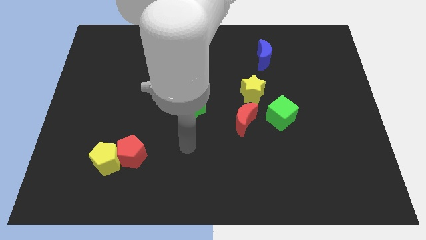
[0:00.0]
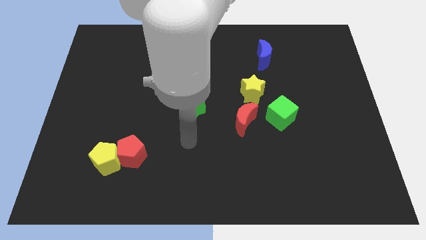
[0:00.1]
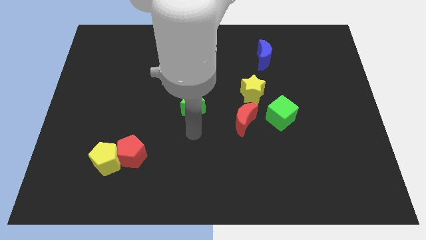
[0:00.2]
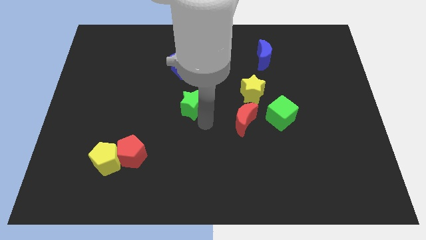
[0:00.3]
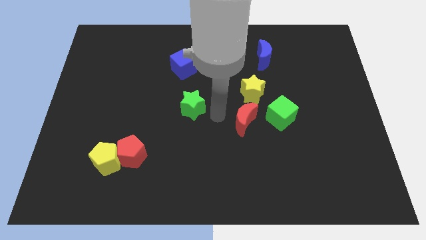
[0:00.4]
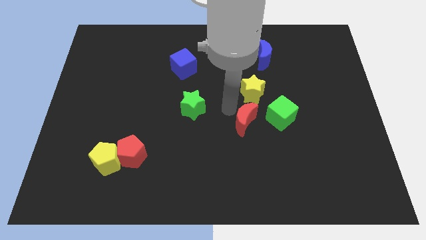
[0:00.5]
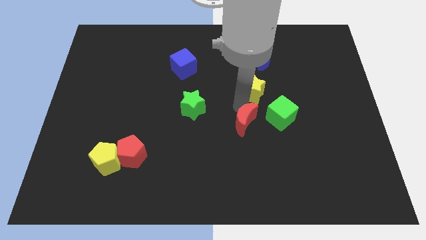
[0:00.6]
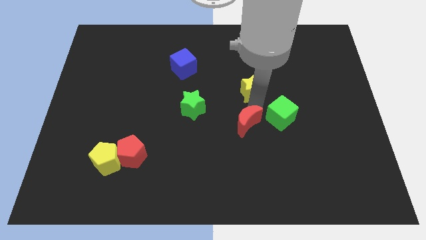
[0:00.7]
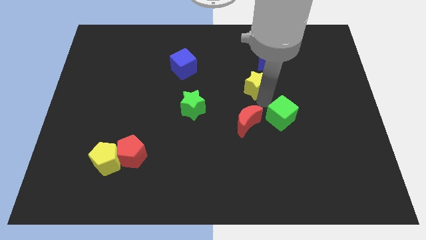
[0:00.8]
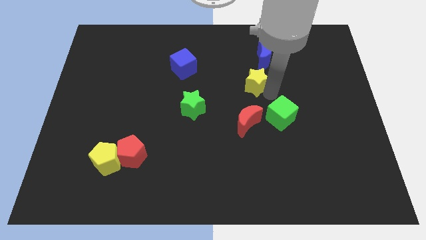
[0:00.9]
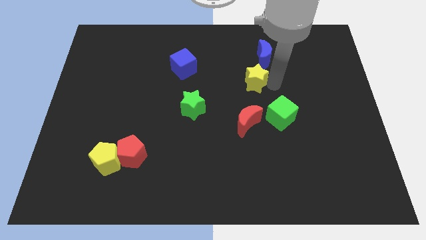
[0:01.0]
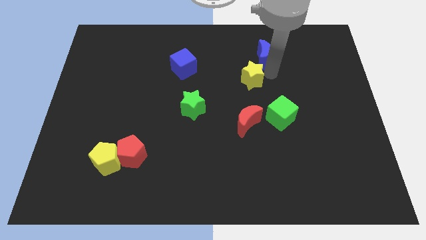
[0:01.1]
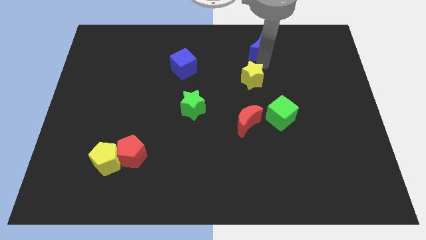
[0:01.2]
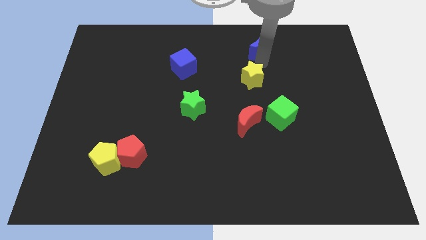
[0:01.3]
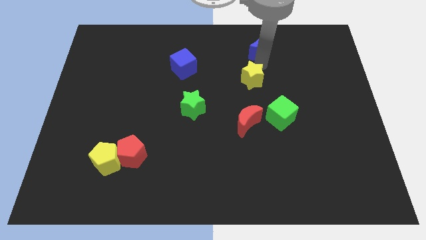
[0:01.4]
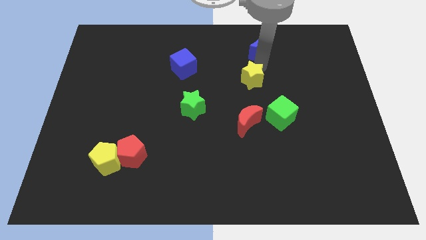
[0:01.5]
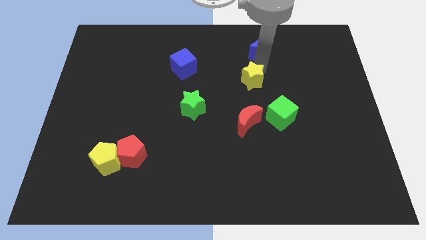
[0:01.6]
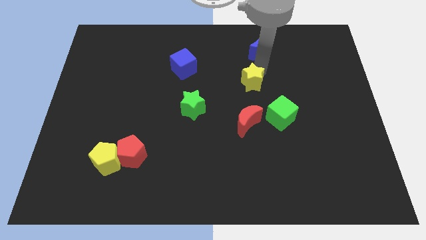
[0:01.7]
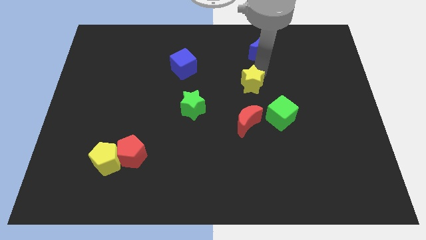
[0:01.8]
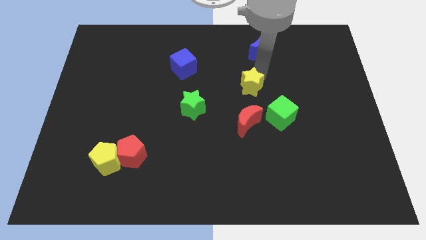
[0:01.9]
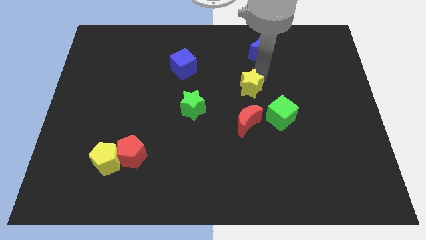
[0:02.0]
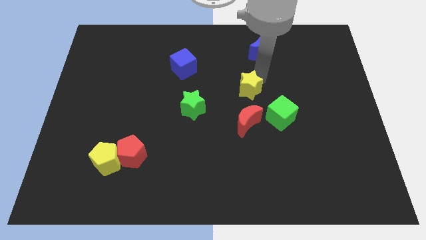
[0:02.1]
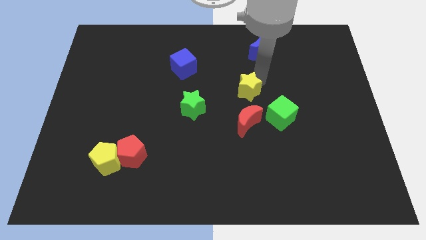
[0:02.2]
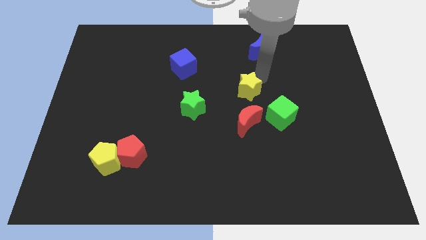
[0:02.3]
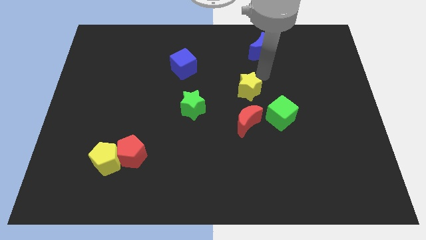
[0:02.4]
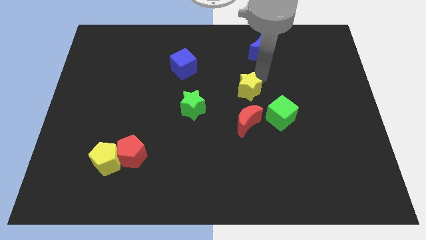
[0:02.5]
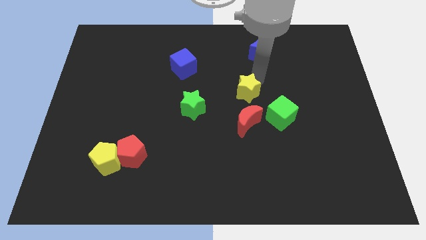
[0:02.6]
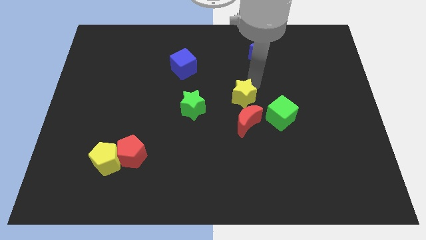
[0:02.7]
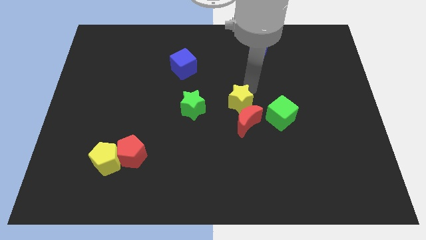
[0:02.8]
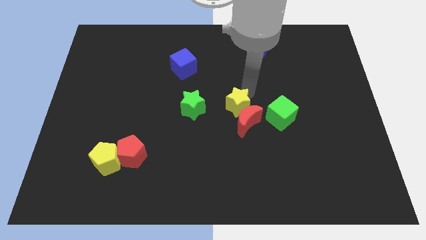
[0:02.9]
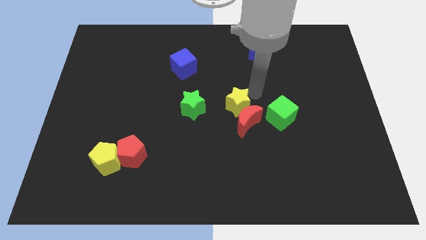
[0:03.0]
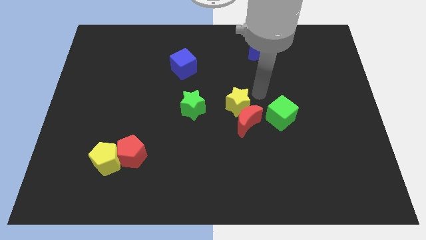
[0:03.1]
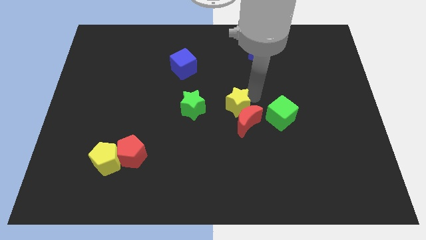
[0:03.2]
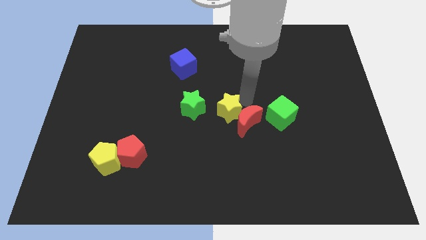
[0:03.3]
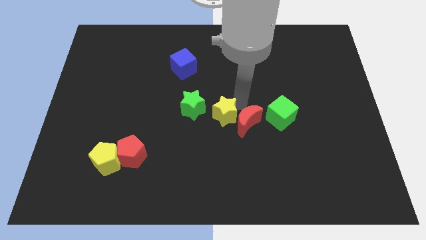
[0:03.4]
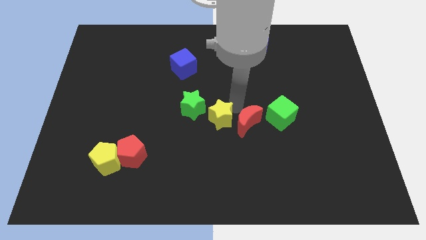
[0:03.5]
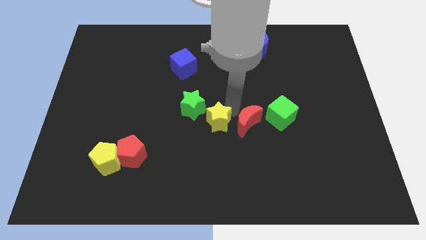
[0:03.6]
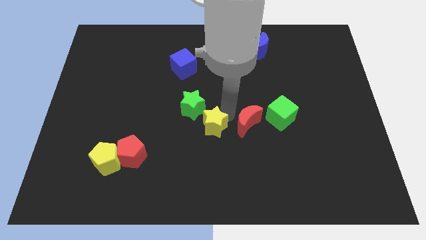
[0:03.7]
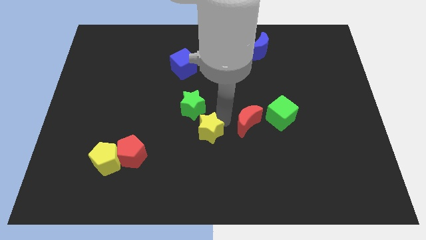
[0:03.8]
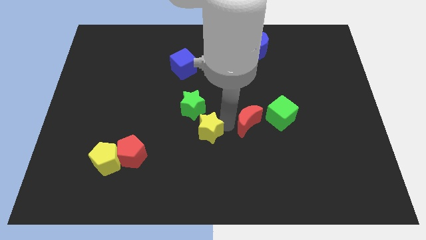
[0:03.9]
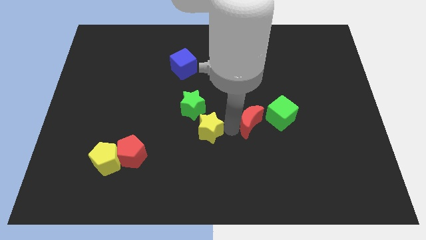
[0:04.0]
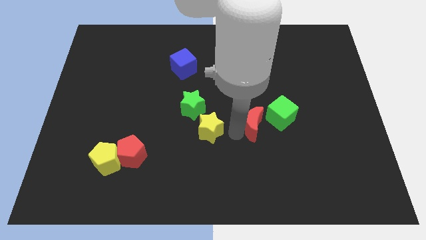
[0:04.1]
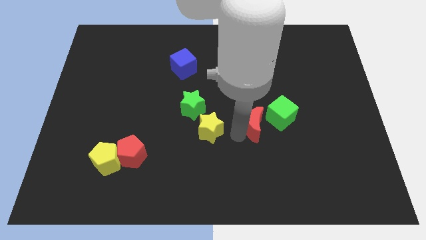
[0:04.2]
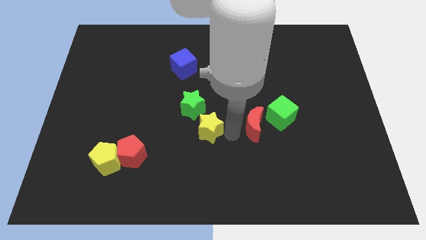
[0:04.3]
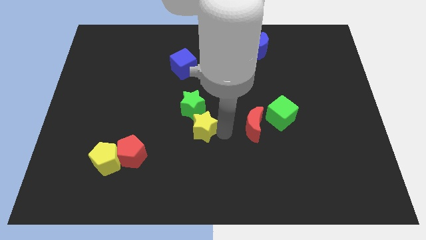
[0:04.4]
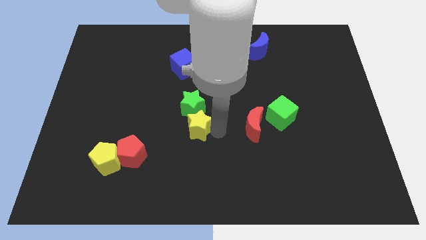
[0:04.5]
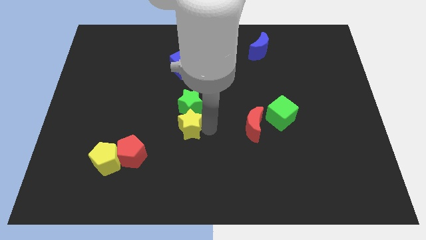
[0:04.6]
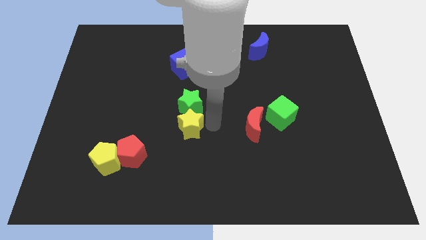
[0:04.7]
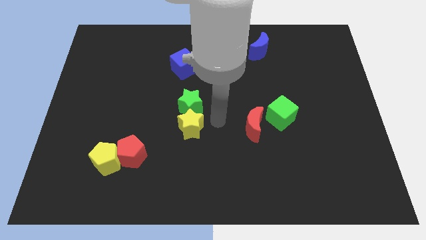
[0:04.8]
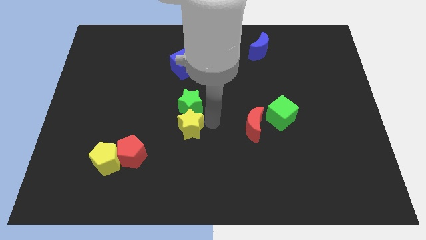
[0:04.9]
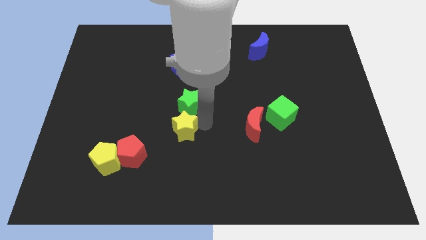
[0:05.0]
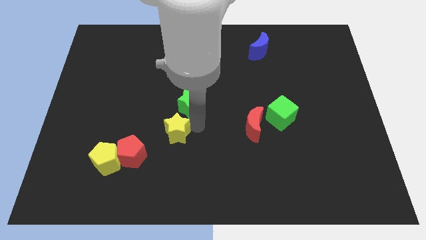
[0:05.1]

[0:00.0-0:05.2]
slide the yellow star to the top right of the red pentagon

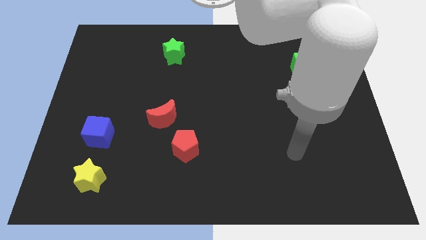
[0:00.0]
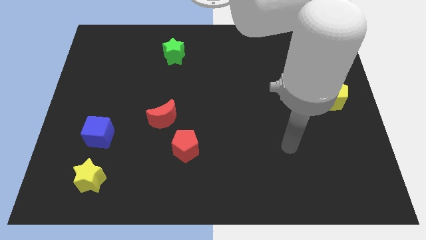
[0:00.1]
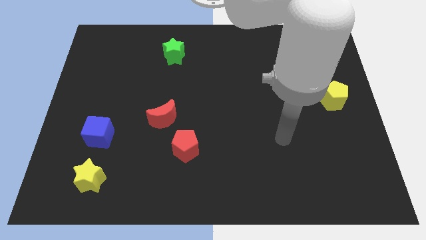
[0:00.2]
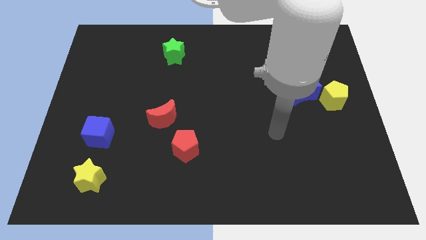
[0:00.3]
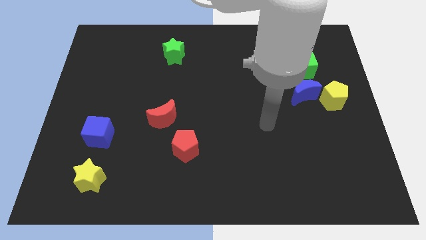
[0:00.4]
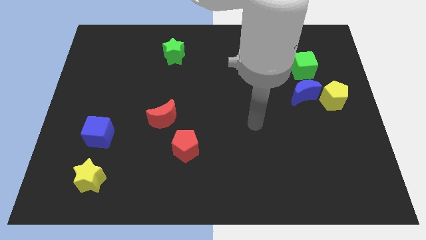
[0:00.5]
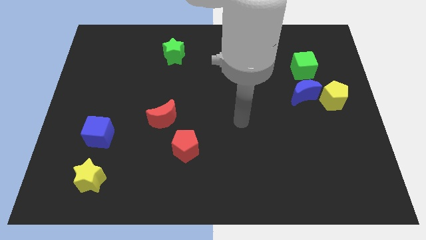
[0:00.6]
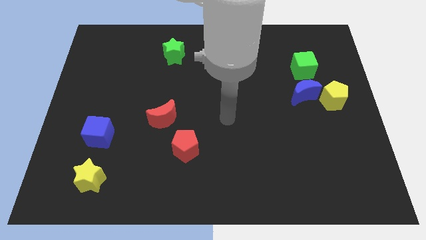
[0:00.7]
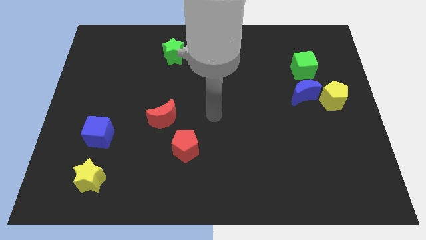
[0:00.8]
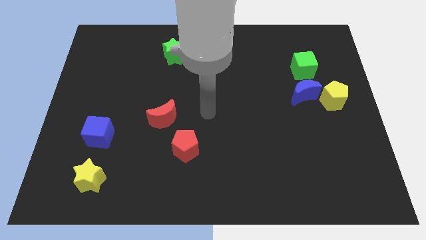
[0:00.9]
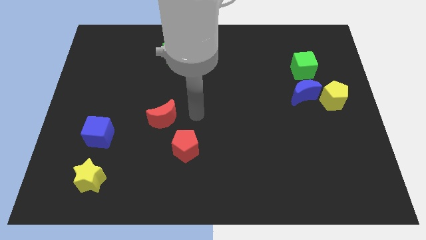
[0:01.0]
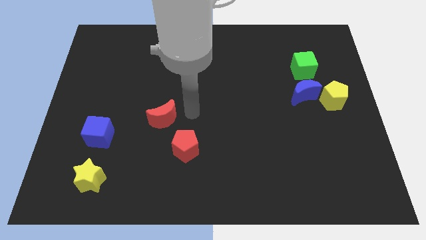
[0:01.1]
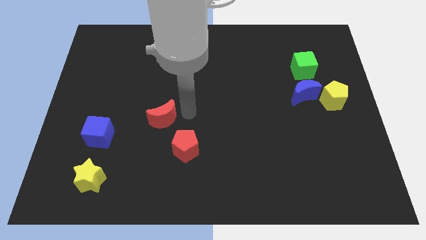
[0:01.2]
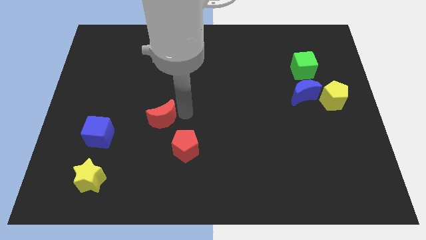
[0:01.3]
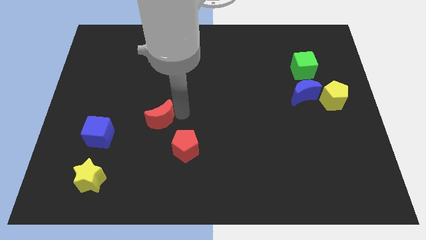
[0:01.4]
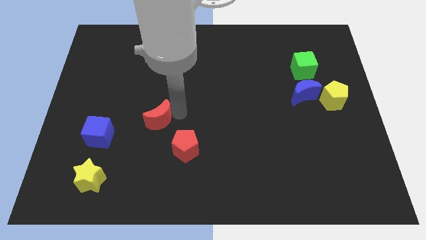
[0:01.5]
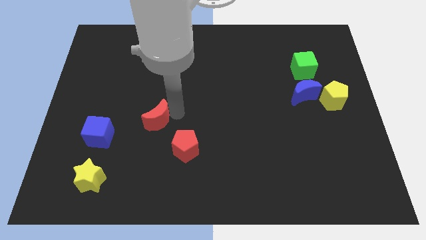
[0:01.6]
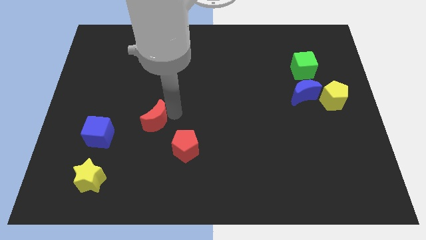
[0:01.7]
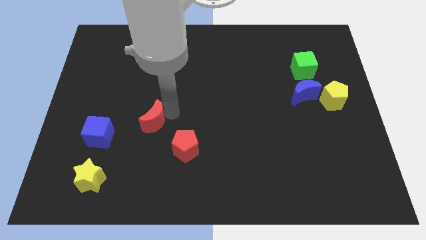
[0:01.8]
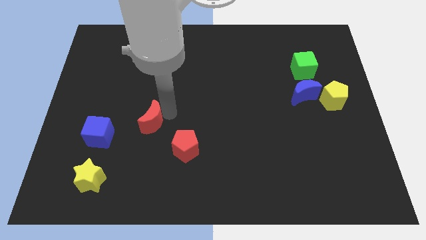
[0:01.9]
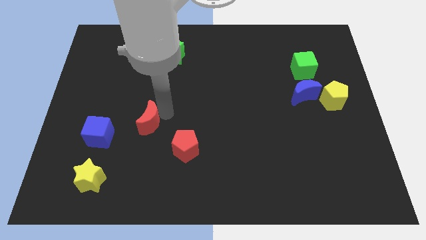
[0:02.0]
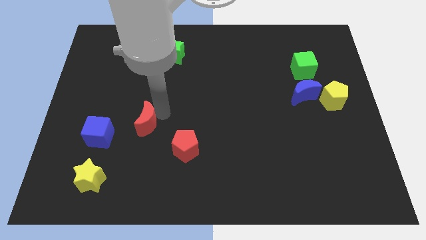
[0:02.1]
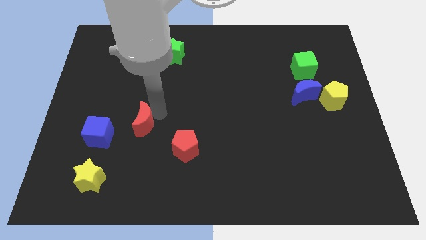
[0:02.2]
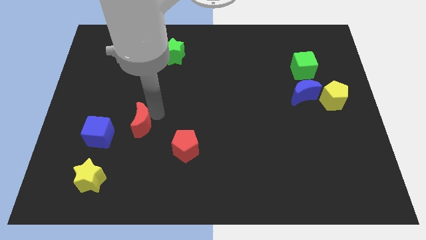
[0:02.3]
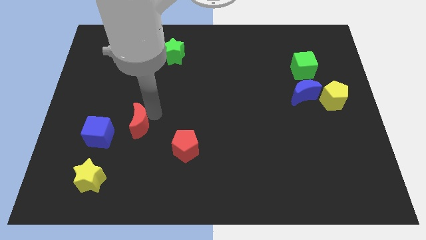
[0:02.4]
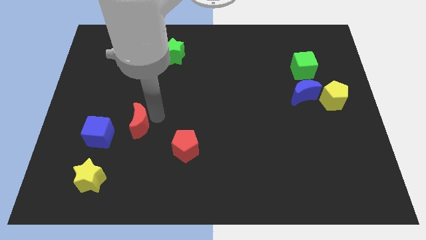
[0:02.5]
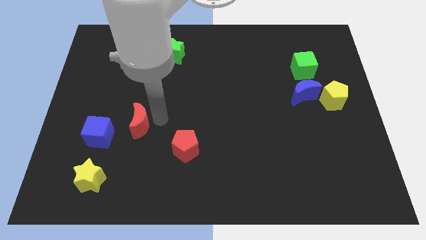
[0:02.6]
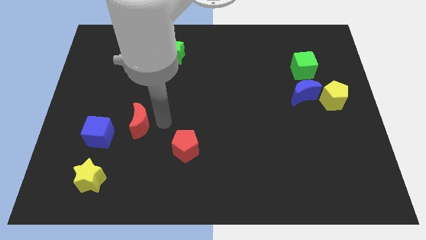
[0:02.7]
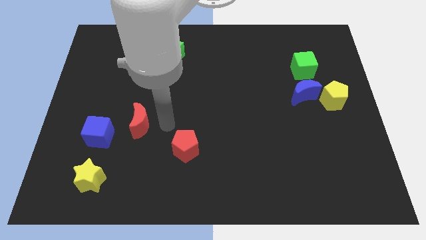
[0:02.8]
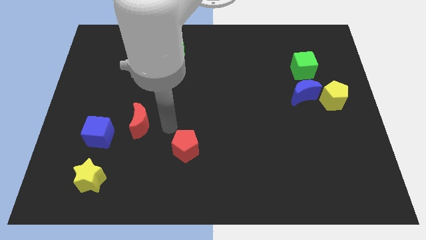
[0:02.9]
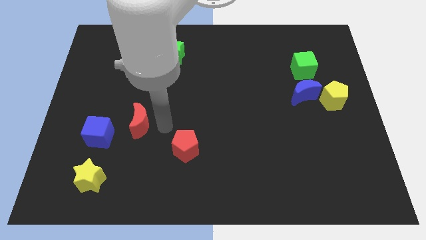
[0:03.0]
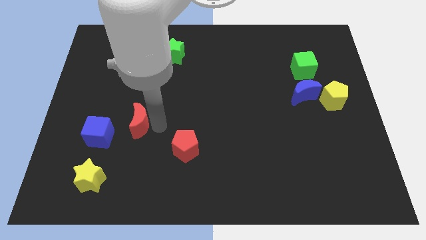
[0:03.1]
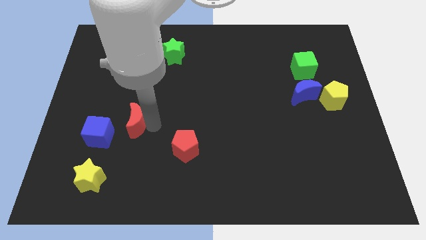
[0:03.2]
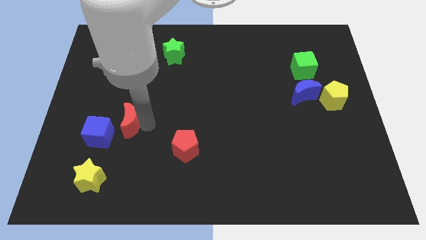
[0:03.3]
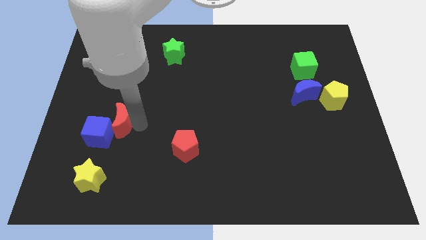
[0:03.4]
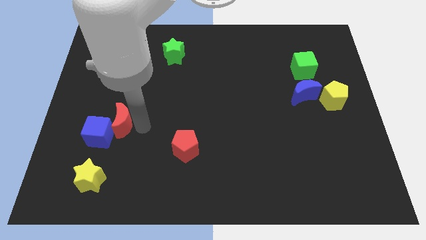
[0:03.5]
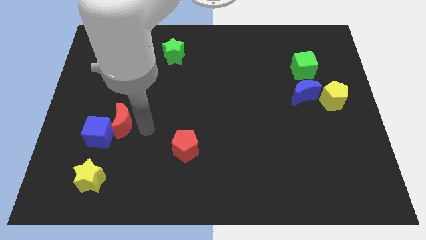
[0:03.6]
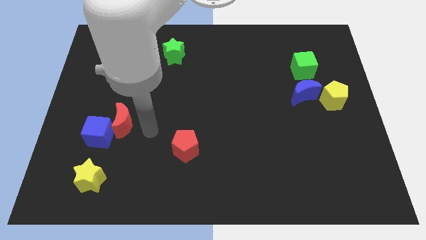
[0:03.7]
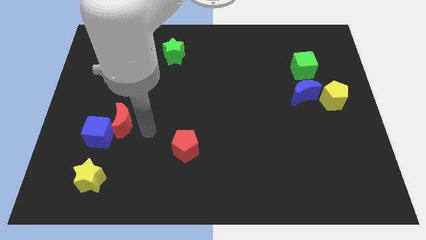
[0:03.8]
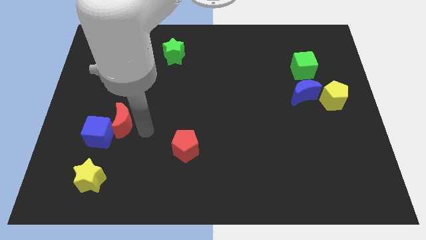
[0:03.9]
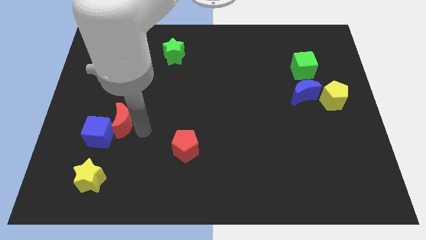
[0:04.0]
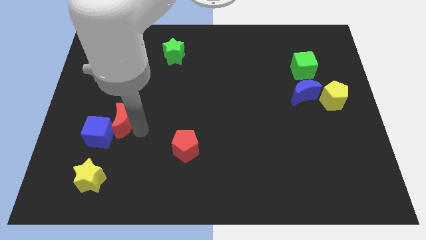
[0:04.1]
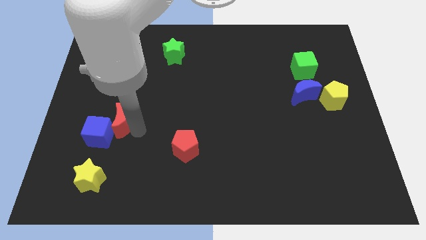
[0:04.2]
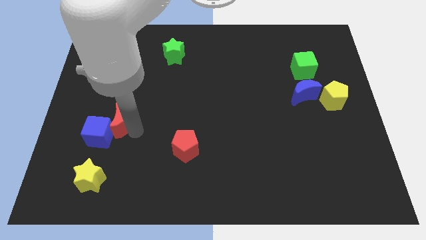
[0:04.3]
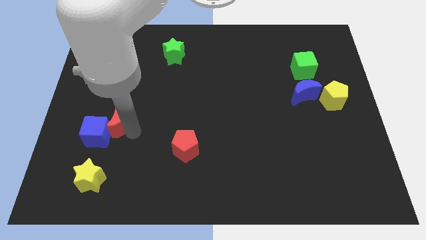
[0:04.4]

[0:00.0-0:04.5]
slide the red moon to the top side of the yellow star
